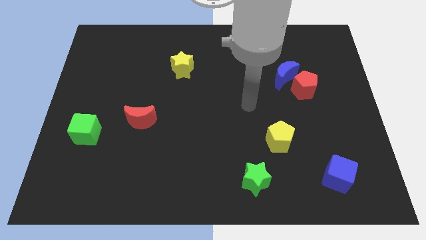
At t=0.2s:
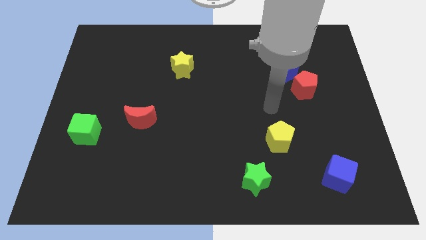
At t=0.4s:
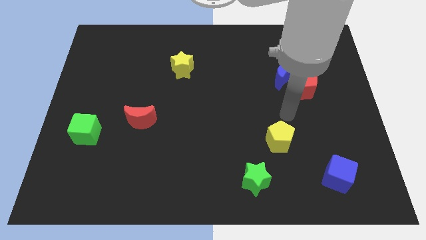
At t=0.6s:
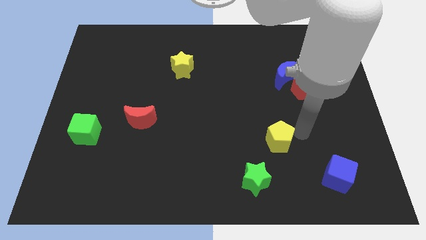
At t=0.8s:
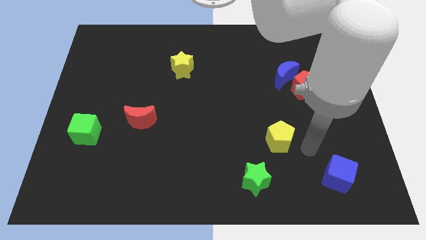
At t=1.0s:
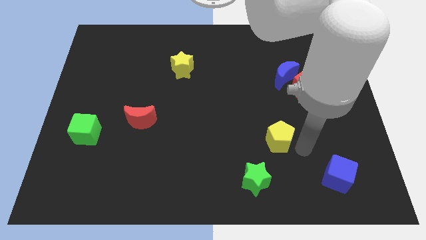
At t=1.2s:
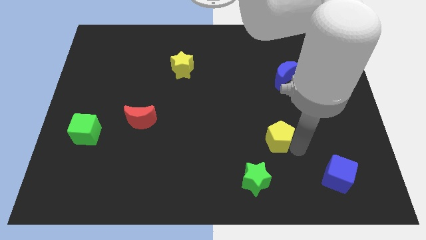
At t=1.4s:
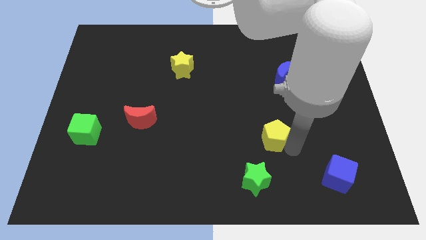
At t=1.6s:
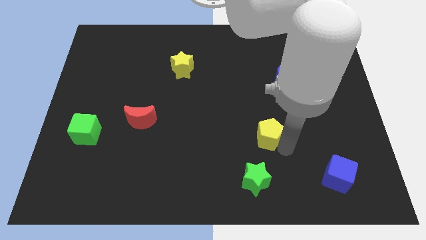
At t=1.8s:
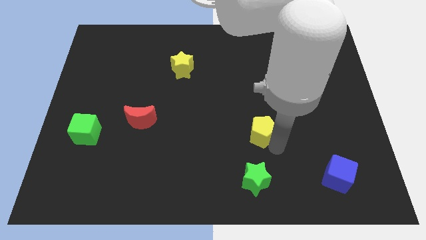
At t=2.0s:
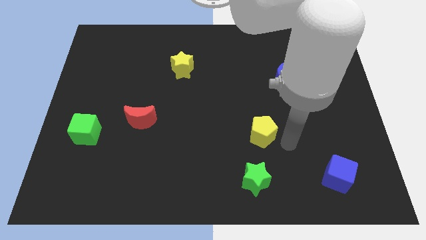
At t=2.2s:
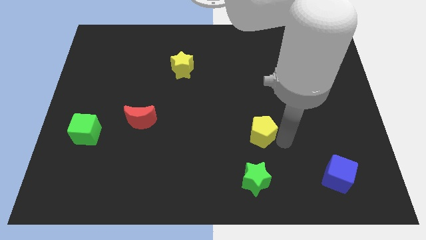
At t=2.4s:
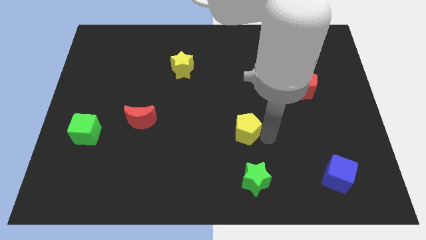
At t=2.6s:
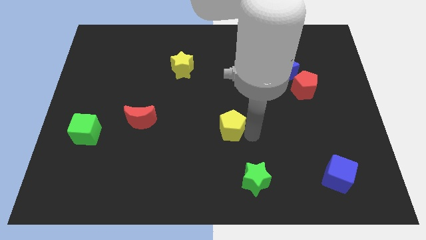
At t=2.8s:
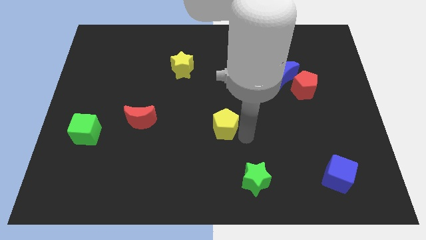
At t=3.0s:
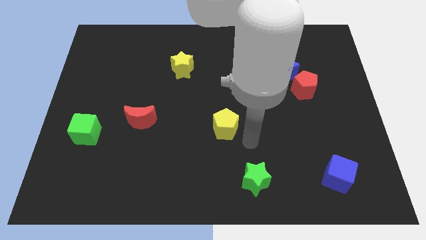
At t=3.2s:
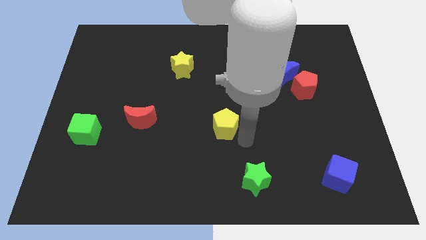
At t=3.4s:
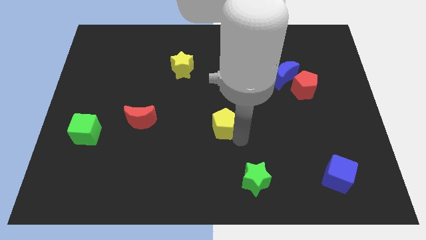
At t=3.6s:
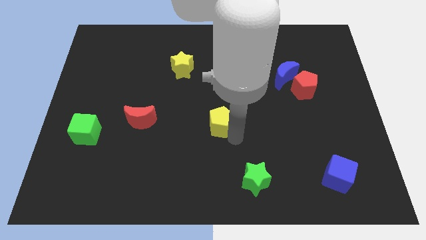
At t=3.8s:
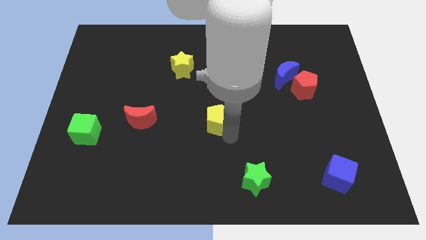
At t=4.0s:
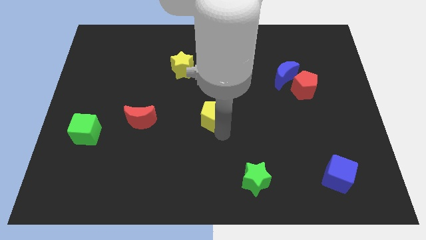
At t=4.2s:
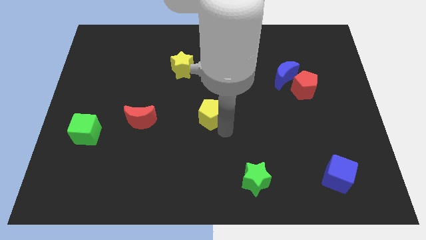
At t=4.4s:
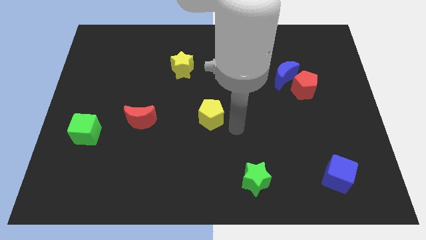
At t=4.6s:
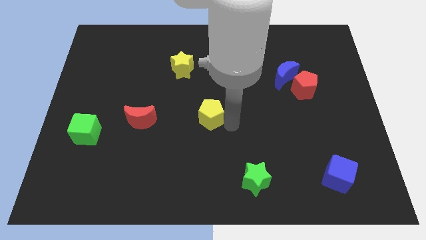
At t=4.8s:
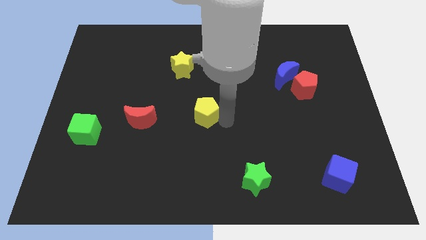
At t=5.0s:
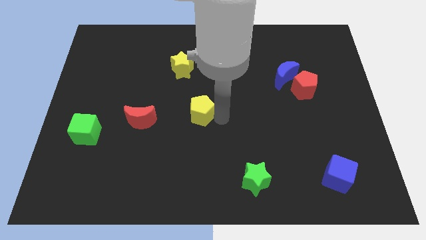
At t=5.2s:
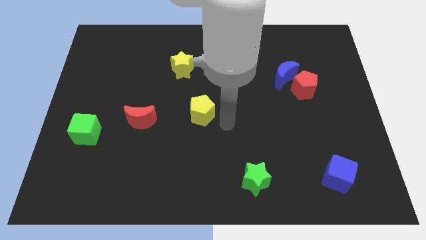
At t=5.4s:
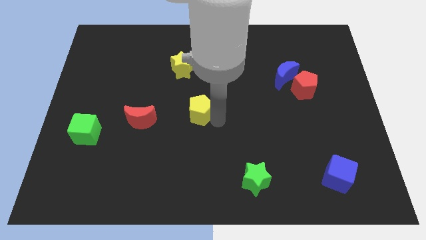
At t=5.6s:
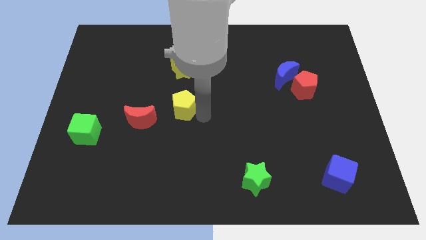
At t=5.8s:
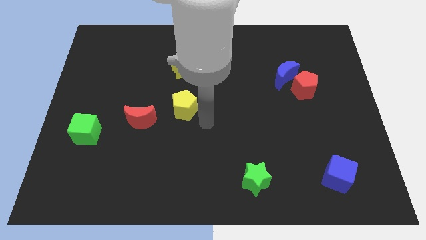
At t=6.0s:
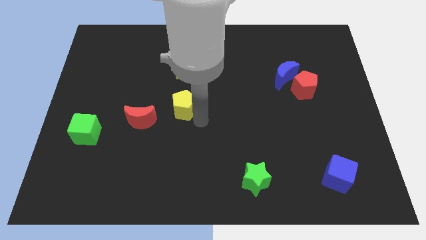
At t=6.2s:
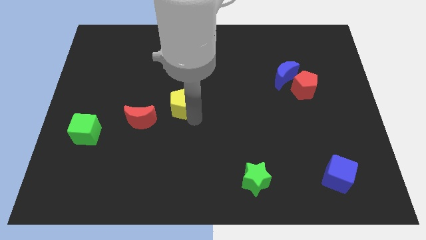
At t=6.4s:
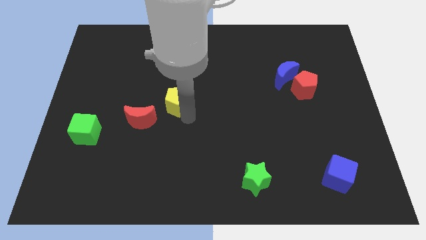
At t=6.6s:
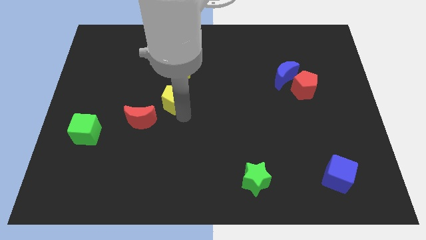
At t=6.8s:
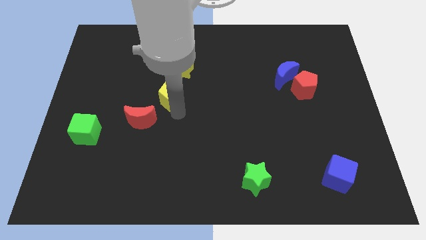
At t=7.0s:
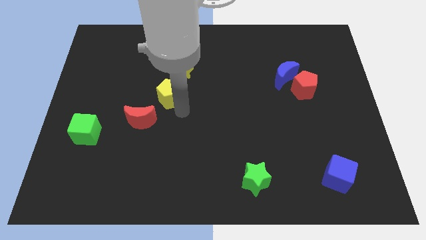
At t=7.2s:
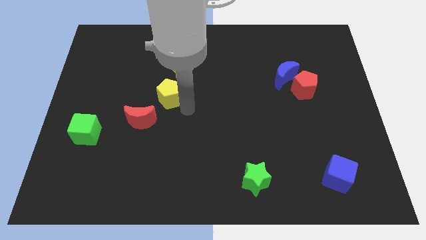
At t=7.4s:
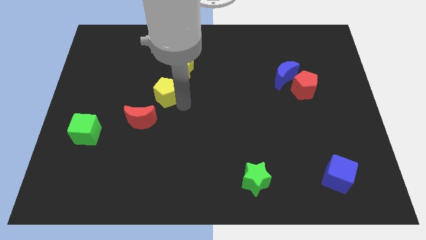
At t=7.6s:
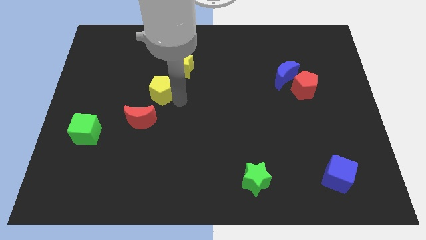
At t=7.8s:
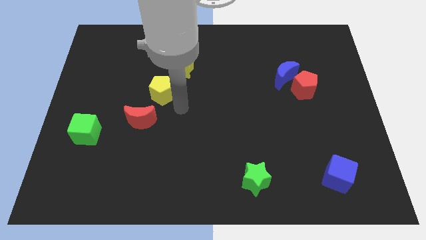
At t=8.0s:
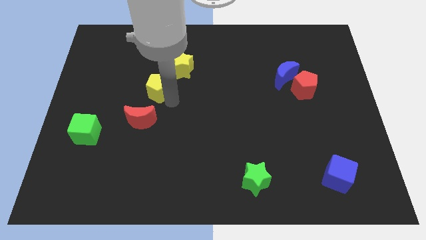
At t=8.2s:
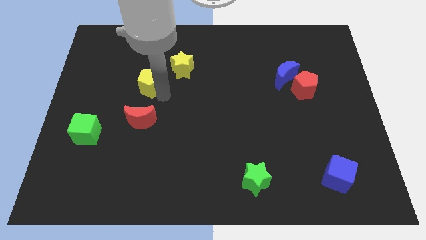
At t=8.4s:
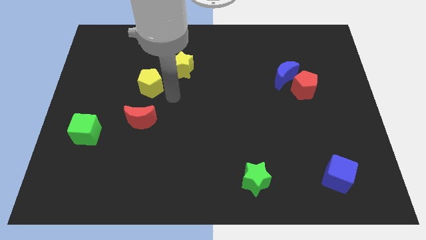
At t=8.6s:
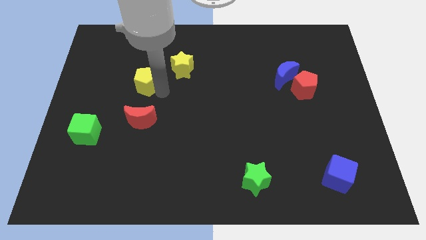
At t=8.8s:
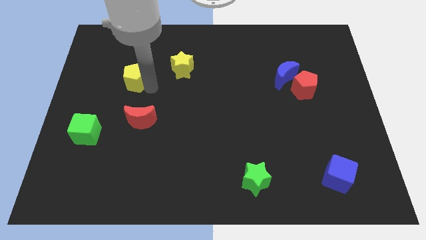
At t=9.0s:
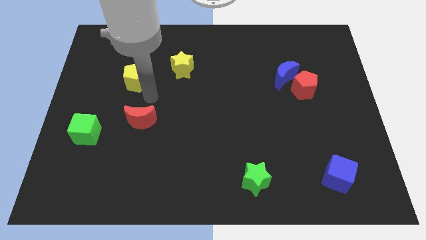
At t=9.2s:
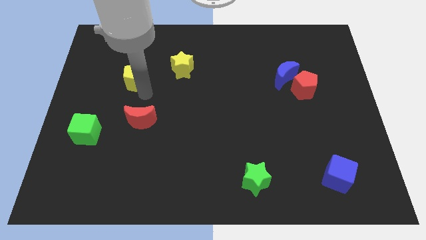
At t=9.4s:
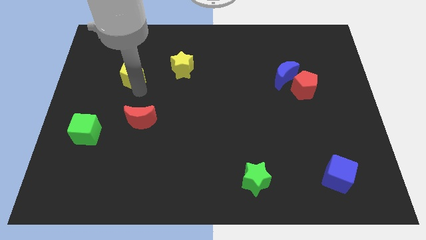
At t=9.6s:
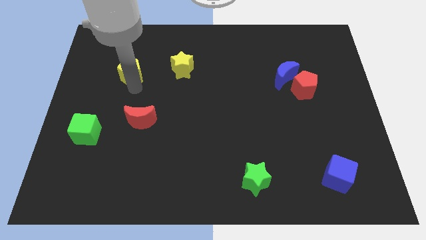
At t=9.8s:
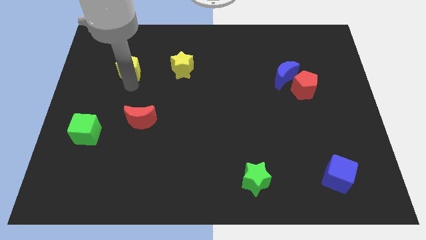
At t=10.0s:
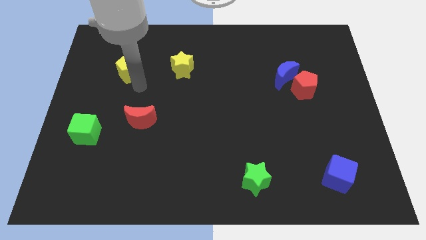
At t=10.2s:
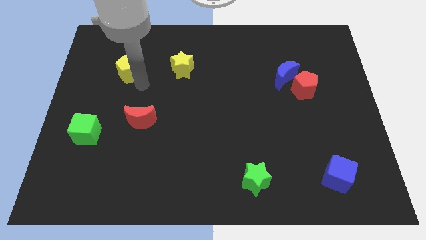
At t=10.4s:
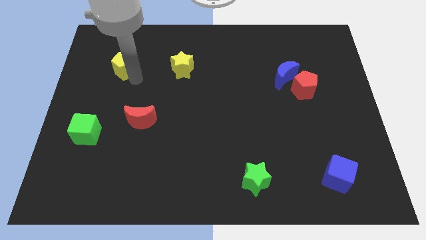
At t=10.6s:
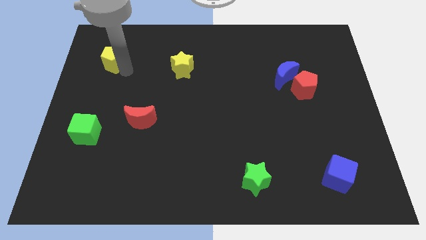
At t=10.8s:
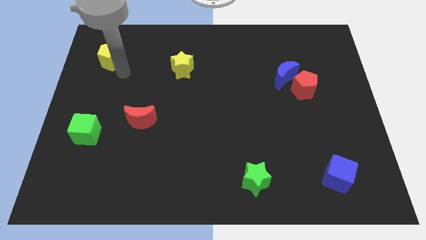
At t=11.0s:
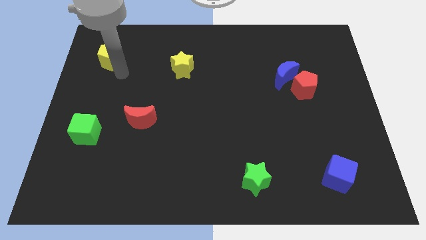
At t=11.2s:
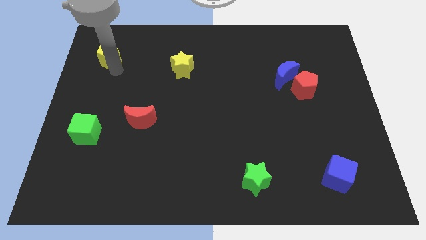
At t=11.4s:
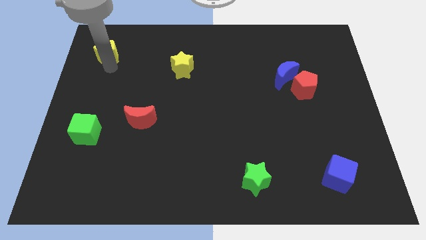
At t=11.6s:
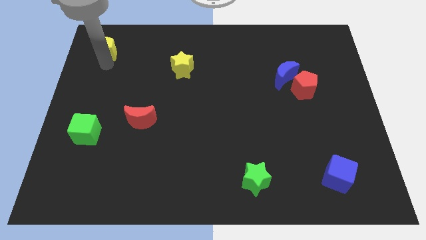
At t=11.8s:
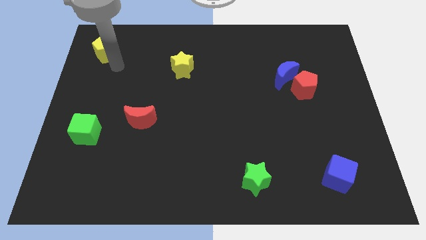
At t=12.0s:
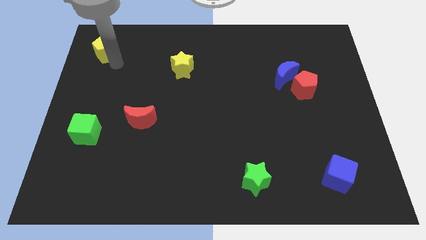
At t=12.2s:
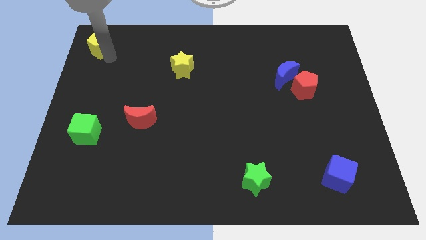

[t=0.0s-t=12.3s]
slide the yellow pentagon to the top left of the board
